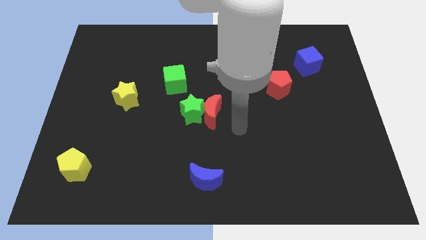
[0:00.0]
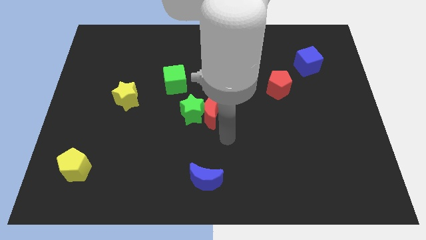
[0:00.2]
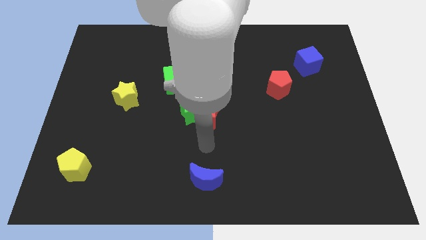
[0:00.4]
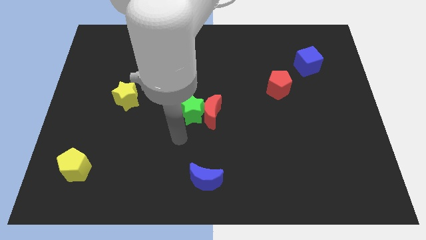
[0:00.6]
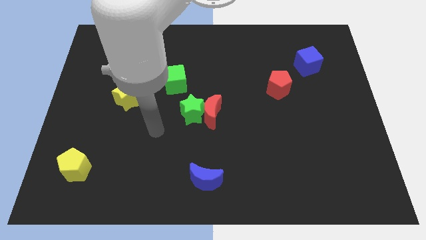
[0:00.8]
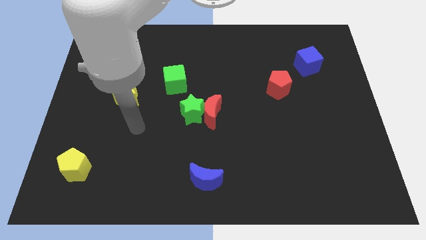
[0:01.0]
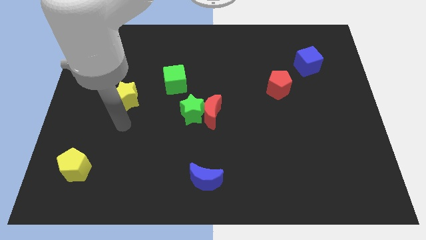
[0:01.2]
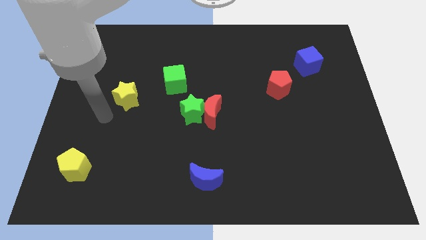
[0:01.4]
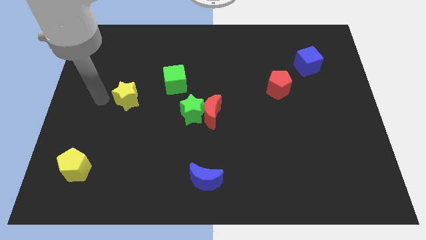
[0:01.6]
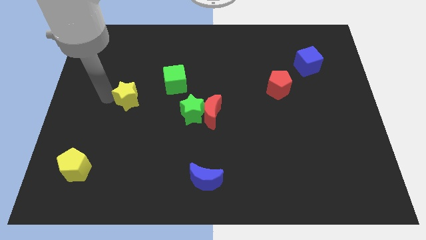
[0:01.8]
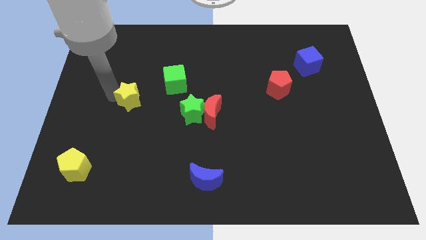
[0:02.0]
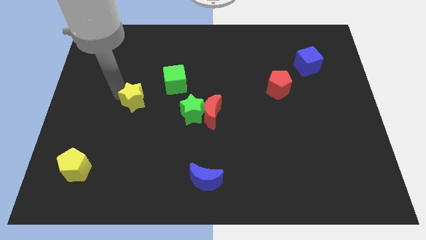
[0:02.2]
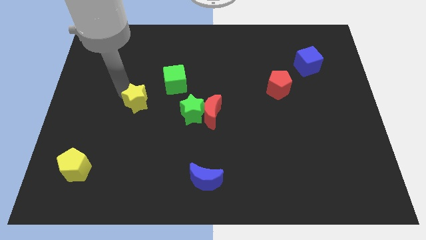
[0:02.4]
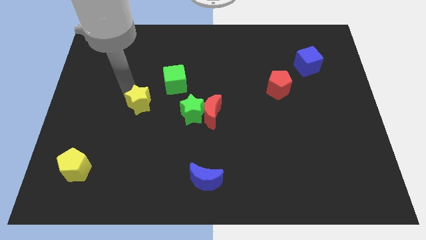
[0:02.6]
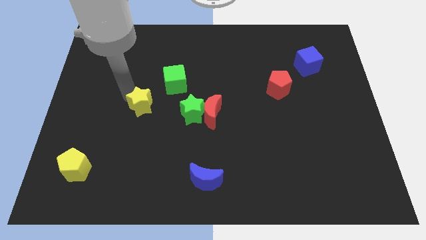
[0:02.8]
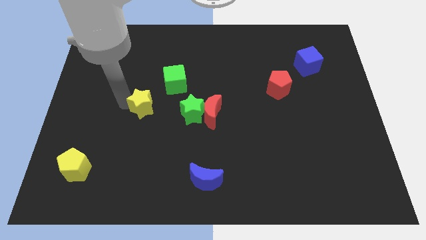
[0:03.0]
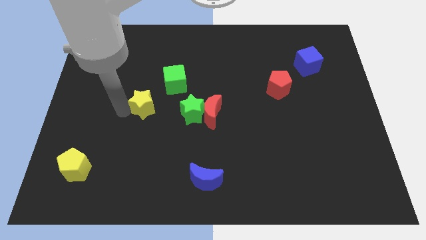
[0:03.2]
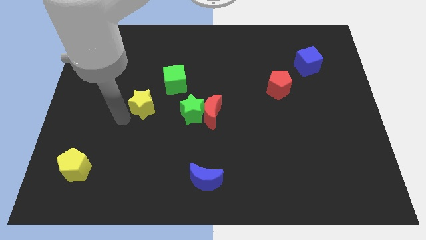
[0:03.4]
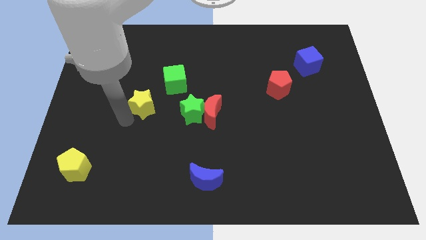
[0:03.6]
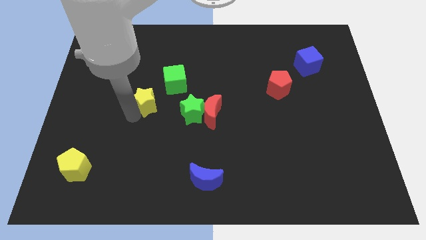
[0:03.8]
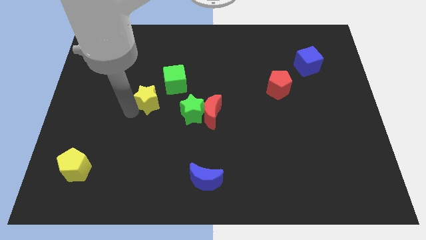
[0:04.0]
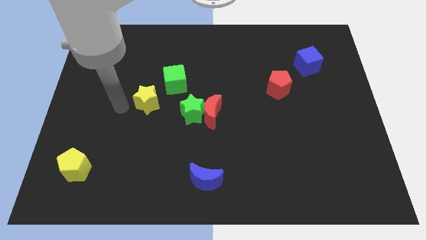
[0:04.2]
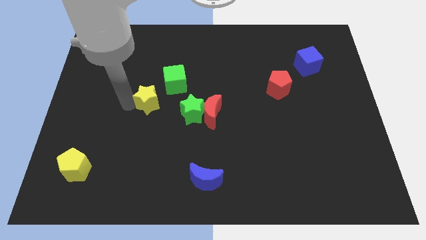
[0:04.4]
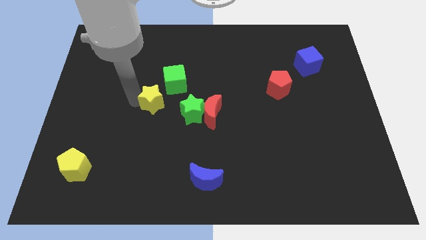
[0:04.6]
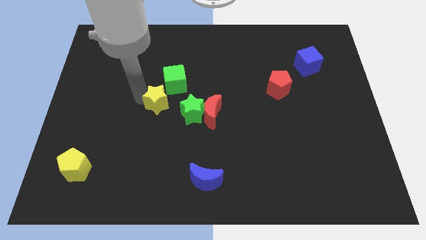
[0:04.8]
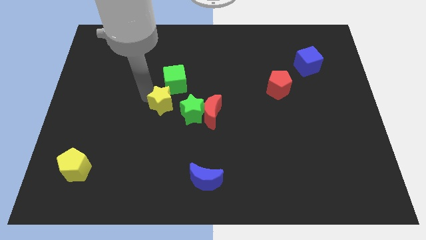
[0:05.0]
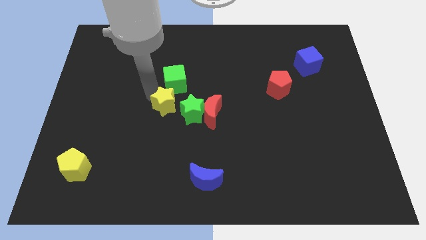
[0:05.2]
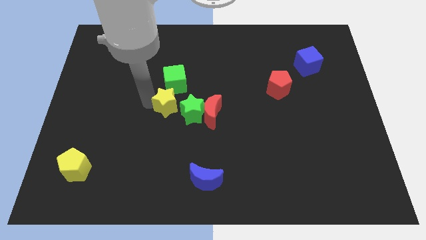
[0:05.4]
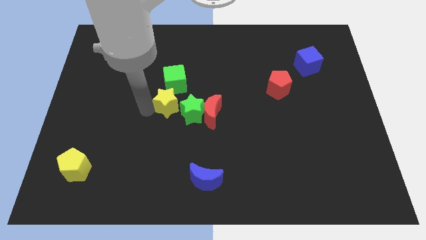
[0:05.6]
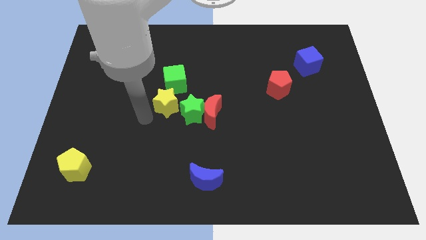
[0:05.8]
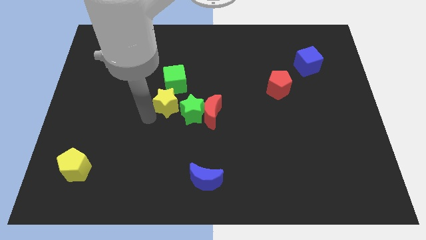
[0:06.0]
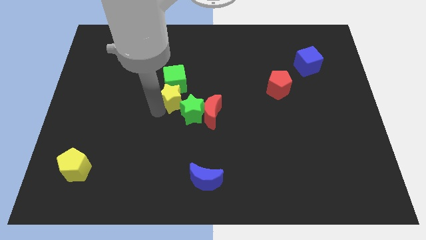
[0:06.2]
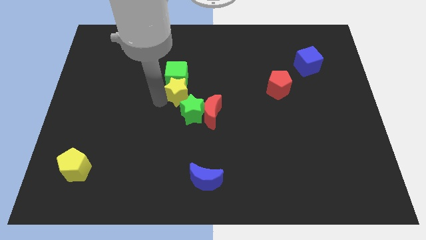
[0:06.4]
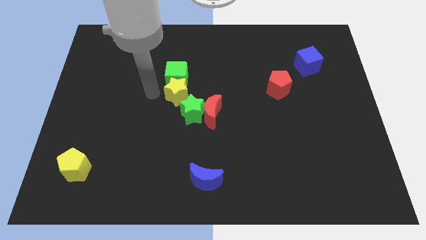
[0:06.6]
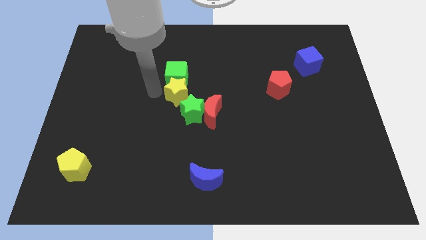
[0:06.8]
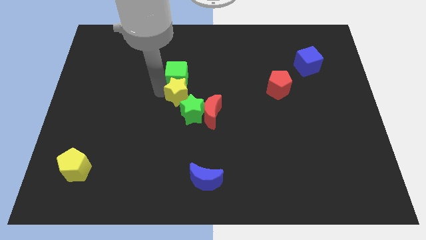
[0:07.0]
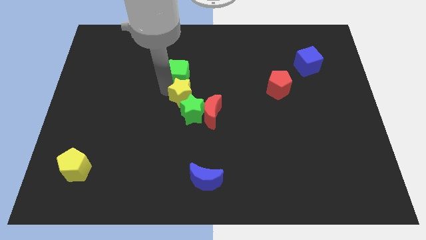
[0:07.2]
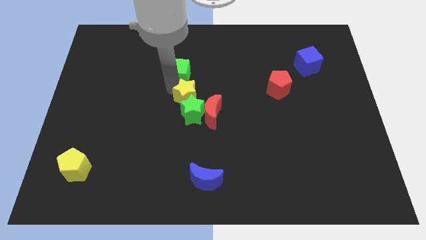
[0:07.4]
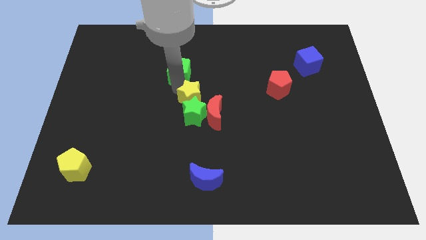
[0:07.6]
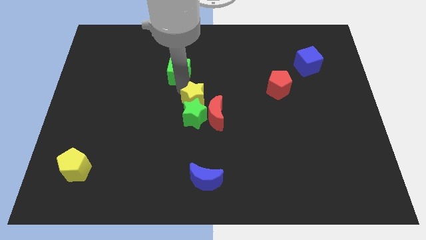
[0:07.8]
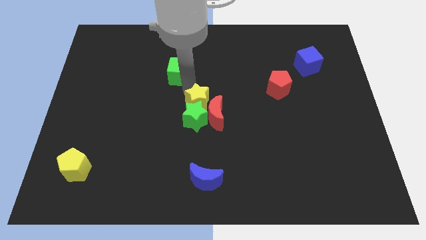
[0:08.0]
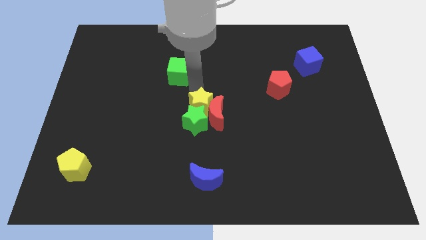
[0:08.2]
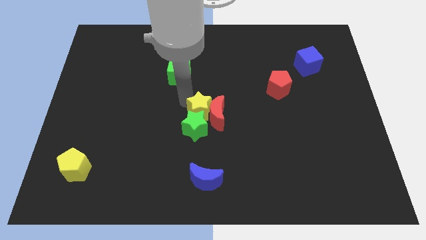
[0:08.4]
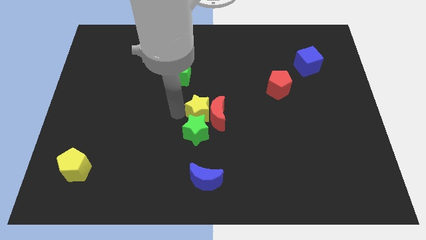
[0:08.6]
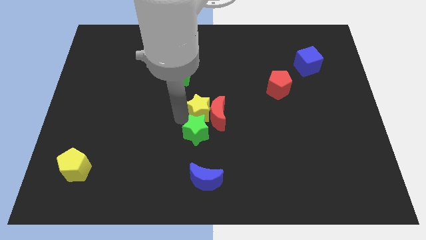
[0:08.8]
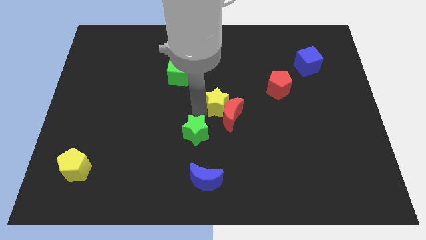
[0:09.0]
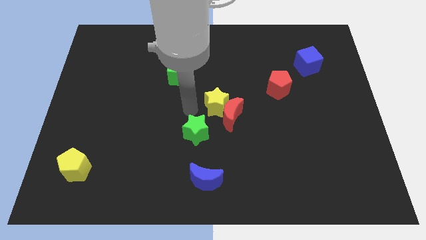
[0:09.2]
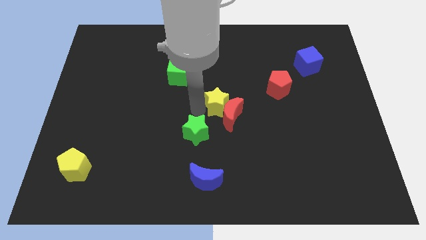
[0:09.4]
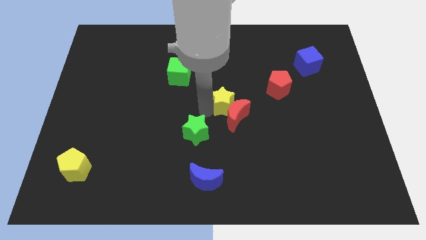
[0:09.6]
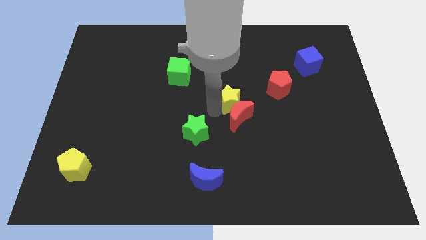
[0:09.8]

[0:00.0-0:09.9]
push the yellow star to the top right of the red moon
